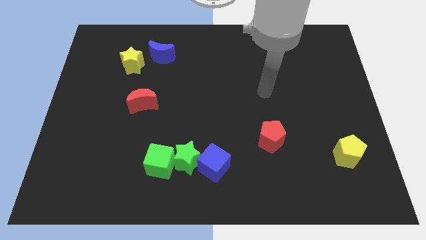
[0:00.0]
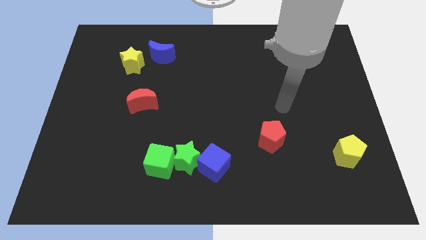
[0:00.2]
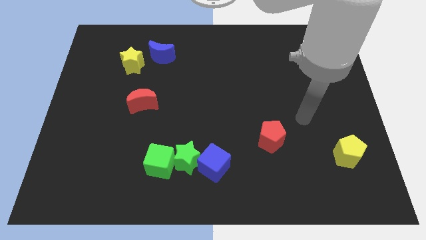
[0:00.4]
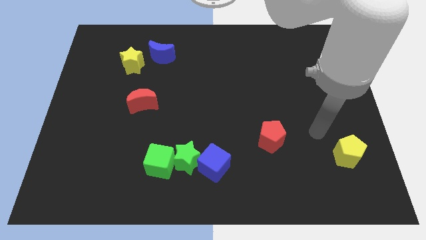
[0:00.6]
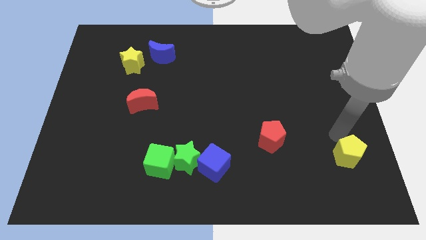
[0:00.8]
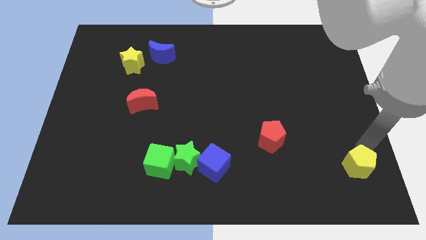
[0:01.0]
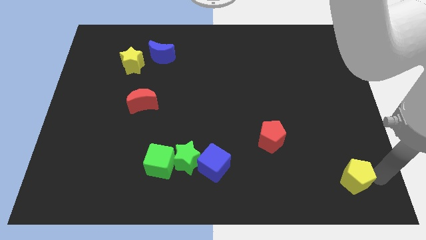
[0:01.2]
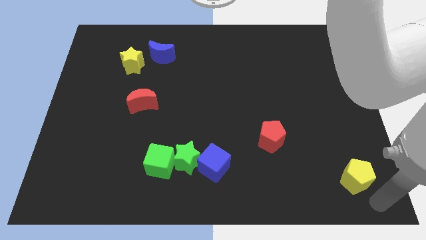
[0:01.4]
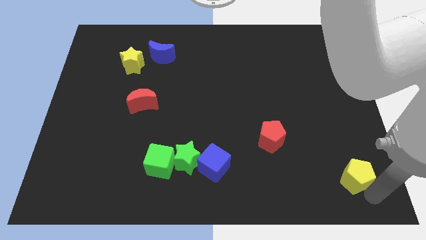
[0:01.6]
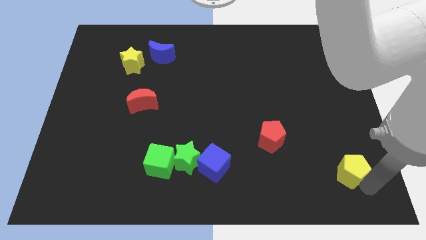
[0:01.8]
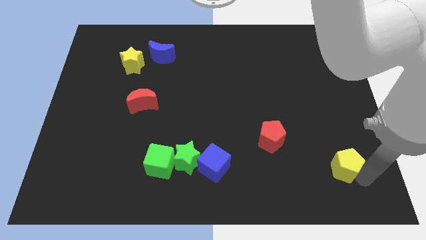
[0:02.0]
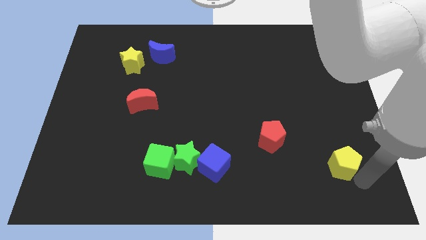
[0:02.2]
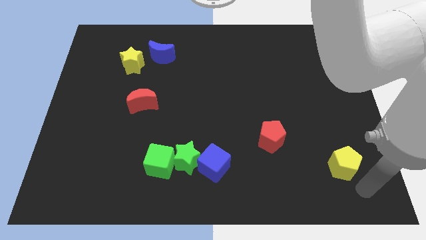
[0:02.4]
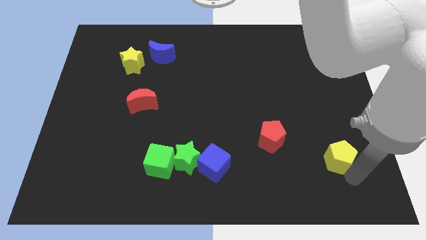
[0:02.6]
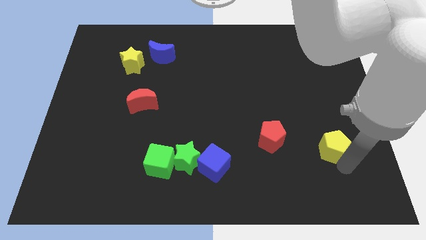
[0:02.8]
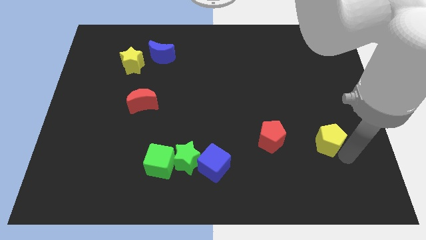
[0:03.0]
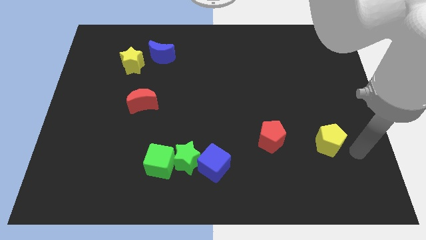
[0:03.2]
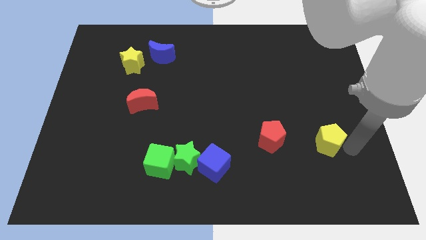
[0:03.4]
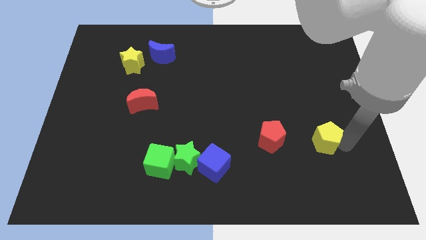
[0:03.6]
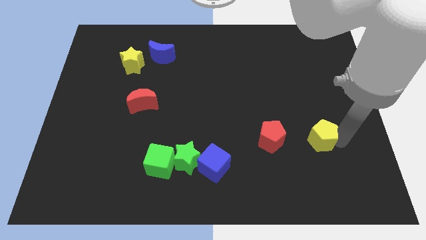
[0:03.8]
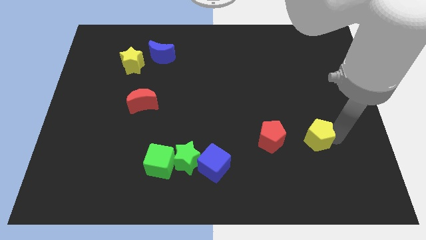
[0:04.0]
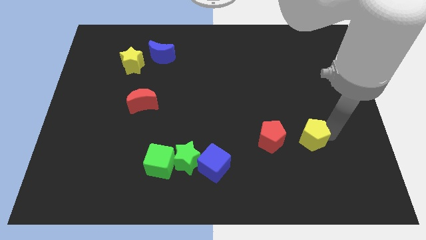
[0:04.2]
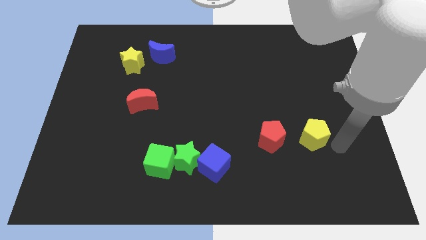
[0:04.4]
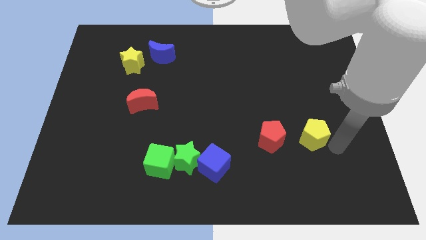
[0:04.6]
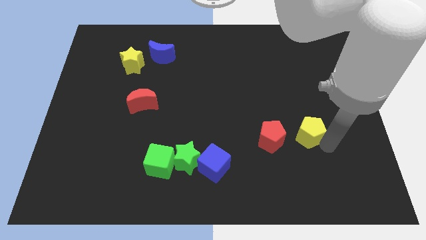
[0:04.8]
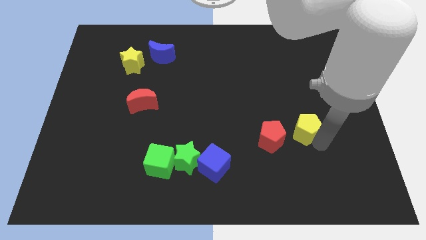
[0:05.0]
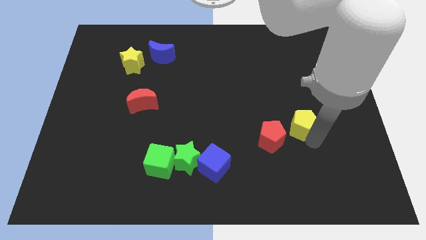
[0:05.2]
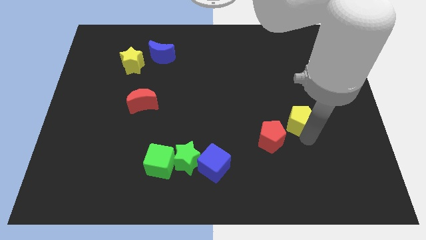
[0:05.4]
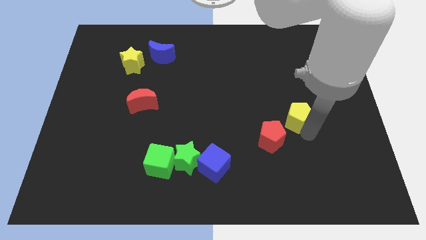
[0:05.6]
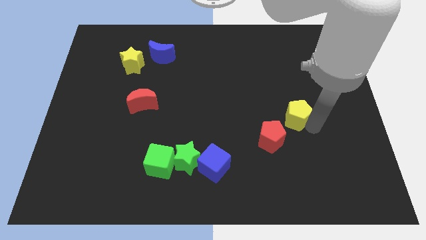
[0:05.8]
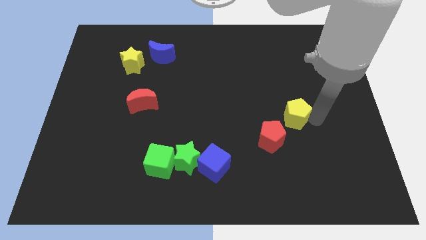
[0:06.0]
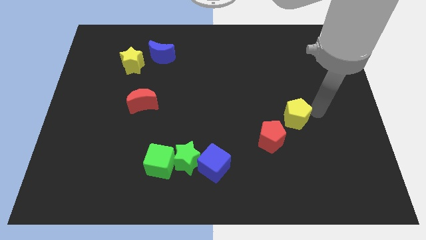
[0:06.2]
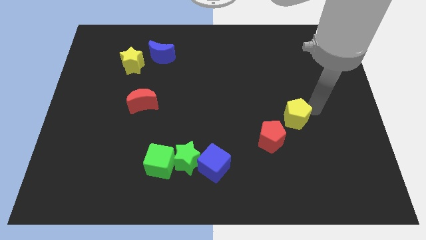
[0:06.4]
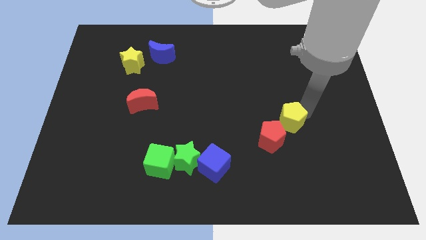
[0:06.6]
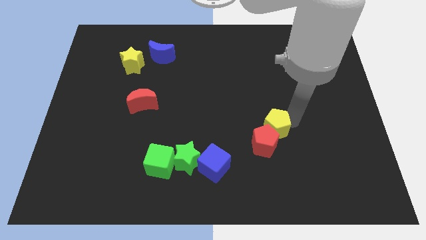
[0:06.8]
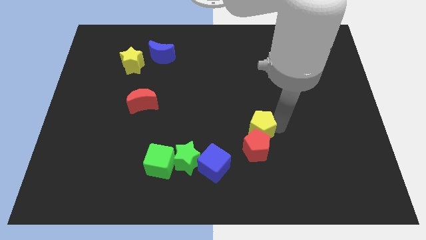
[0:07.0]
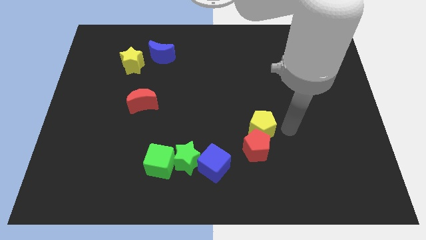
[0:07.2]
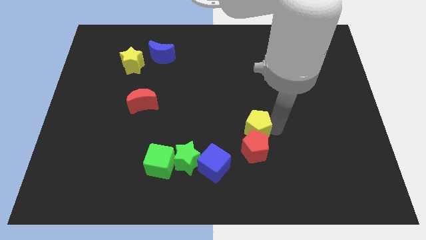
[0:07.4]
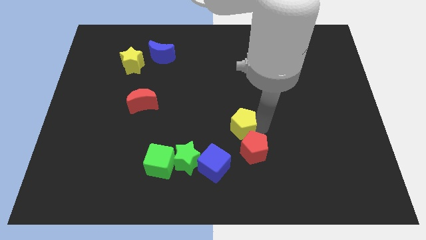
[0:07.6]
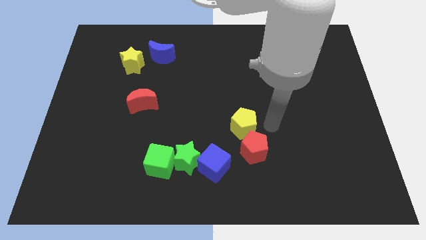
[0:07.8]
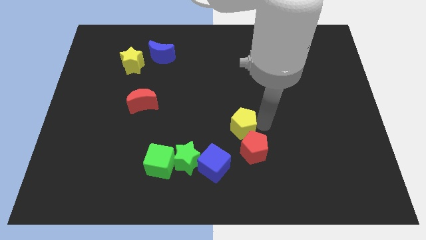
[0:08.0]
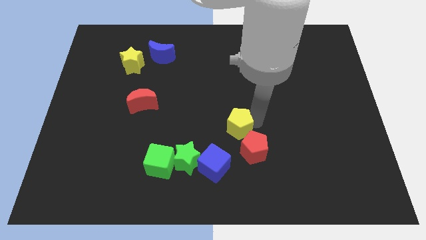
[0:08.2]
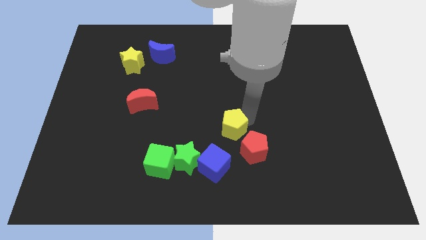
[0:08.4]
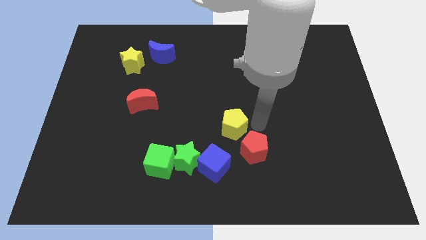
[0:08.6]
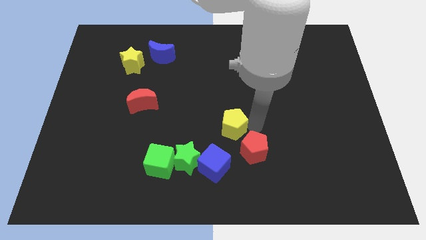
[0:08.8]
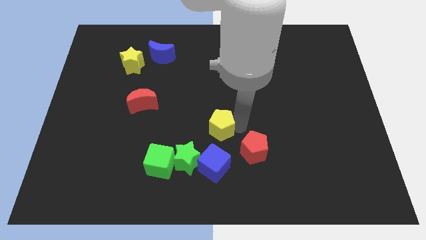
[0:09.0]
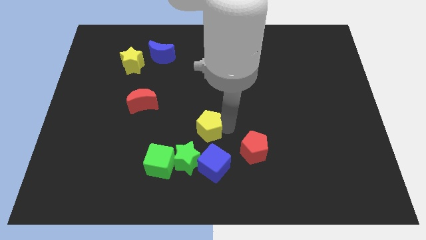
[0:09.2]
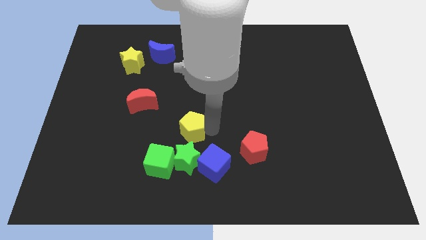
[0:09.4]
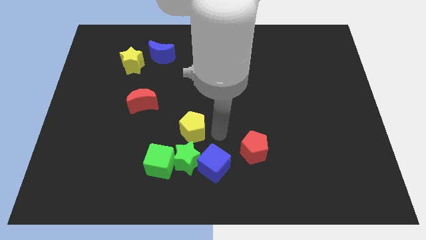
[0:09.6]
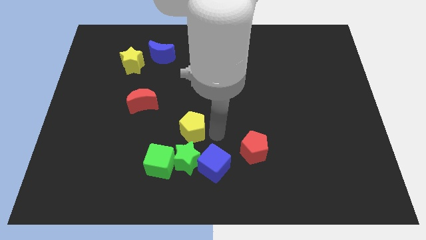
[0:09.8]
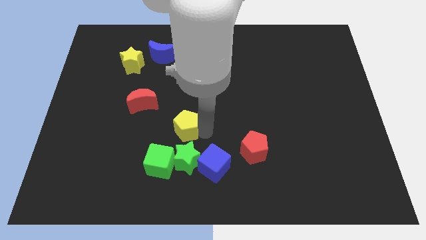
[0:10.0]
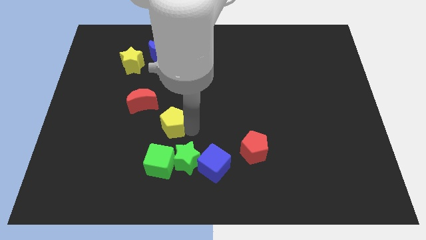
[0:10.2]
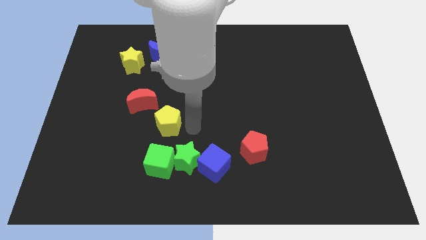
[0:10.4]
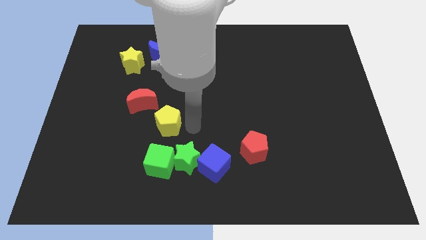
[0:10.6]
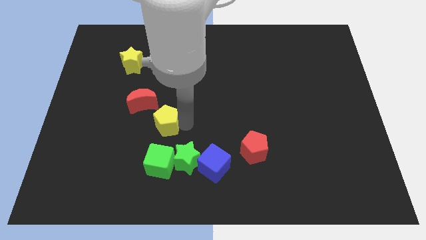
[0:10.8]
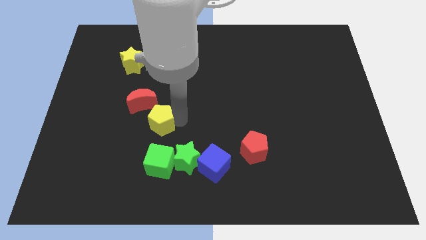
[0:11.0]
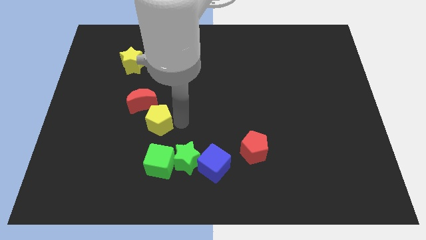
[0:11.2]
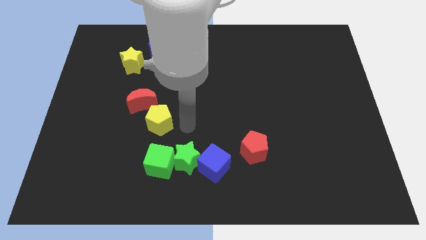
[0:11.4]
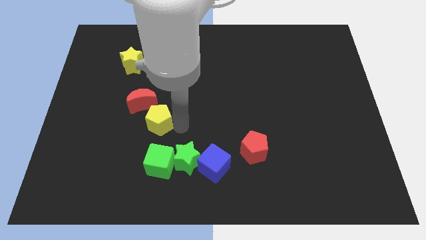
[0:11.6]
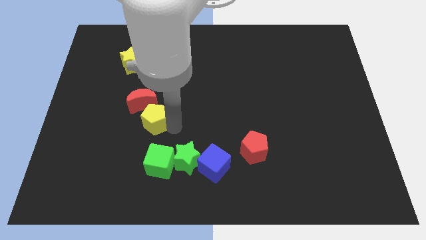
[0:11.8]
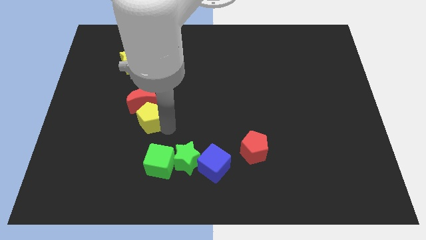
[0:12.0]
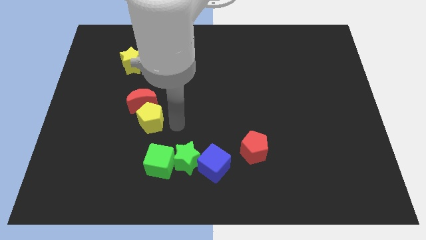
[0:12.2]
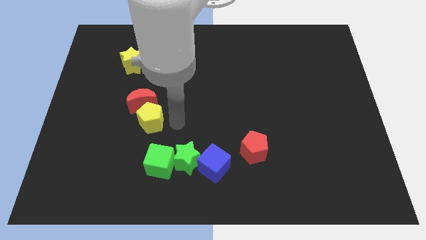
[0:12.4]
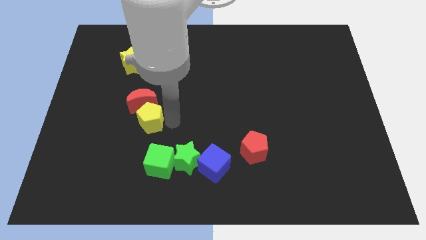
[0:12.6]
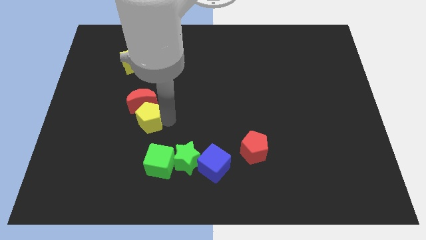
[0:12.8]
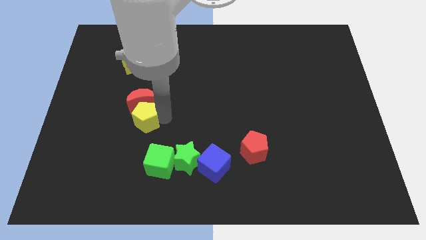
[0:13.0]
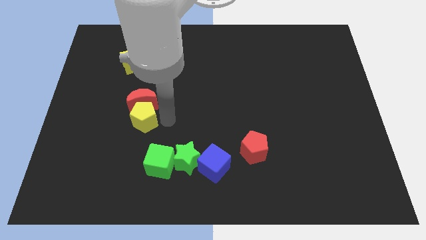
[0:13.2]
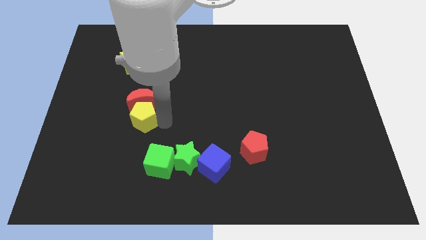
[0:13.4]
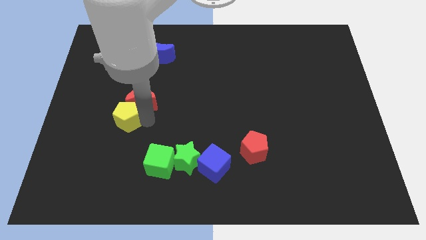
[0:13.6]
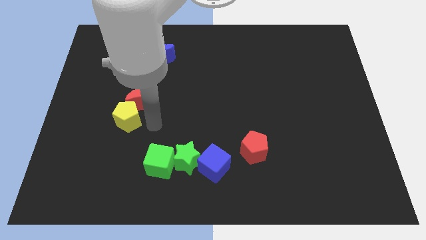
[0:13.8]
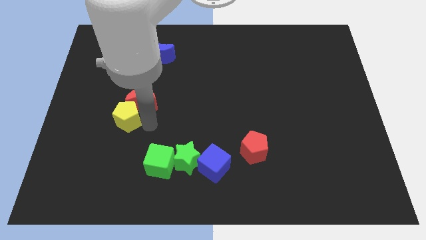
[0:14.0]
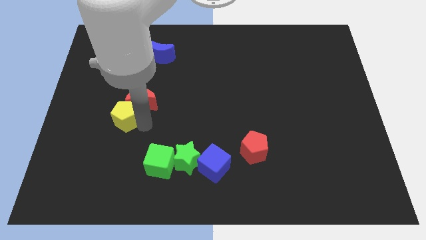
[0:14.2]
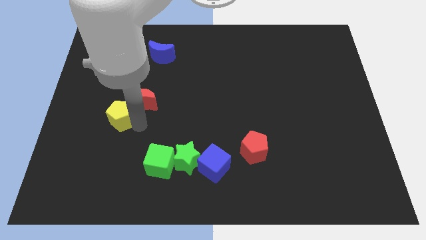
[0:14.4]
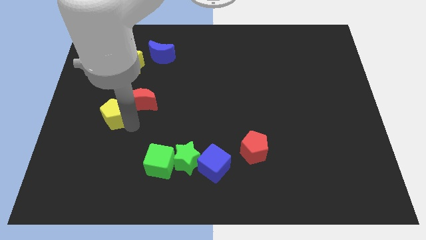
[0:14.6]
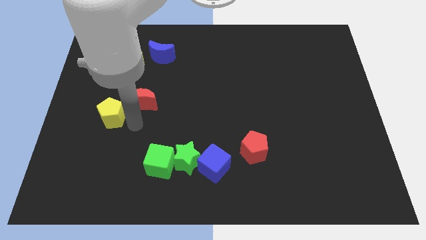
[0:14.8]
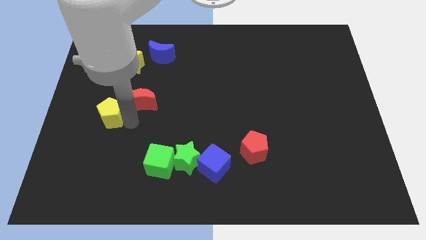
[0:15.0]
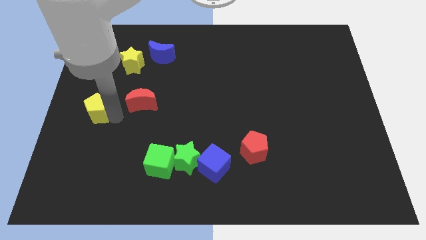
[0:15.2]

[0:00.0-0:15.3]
move the yellow pentagon to the left side
